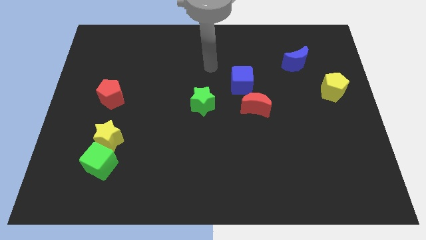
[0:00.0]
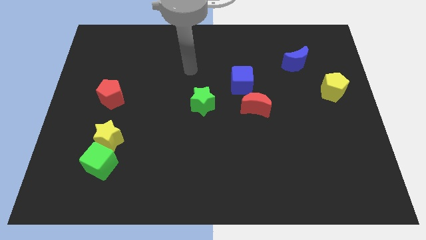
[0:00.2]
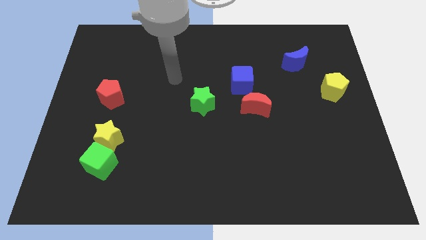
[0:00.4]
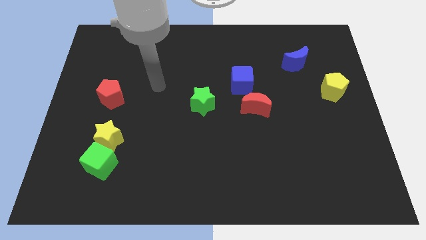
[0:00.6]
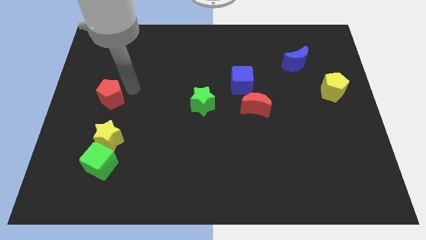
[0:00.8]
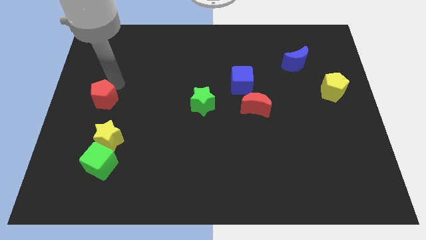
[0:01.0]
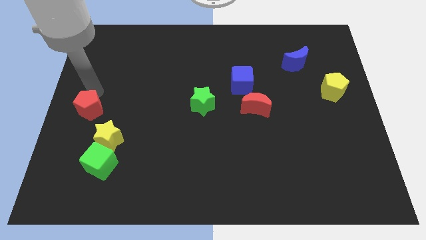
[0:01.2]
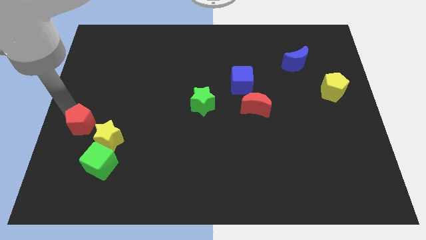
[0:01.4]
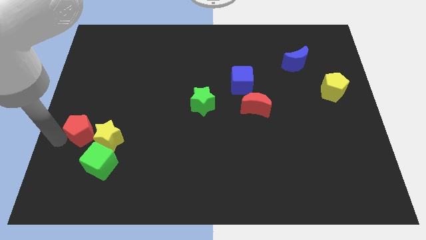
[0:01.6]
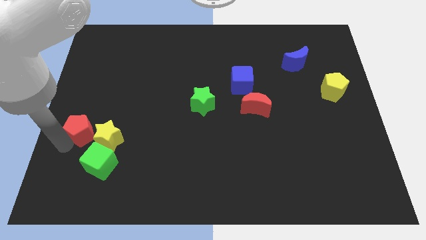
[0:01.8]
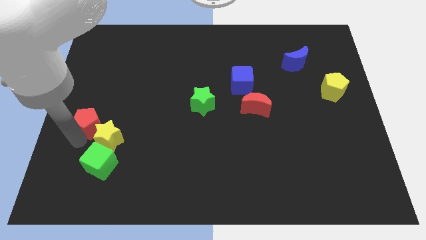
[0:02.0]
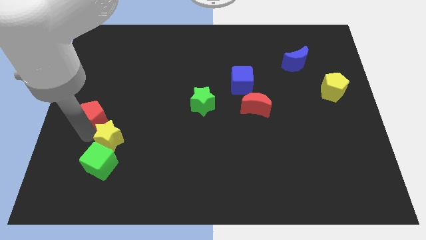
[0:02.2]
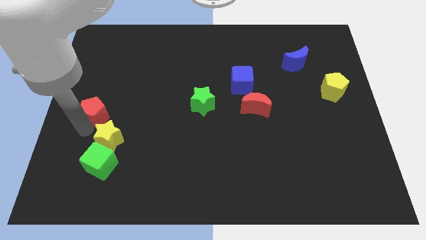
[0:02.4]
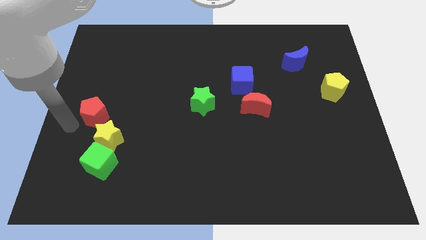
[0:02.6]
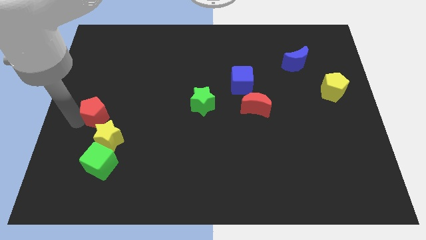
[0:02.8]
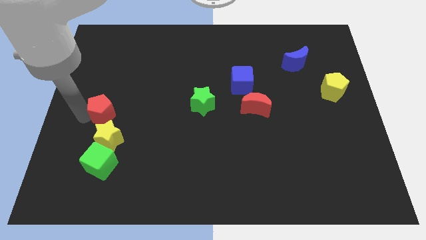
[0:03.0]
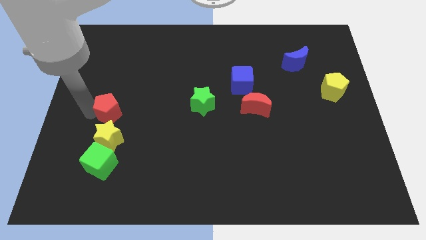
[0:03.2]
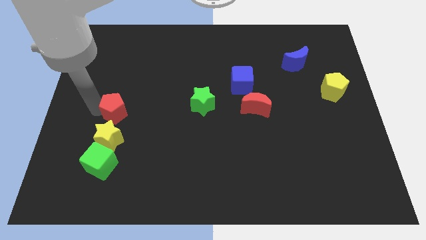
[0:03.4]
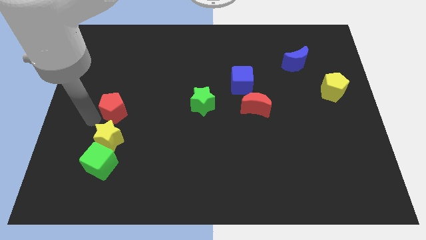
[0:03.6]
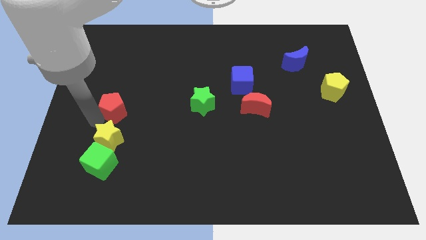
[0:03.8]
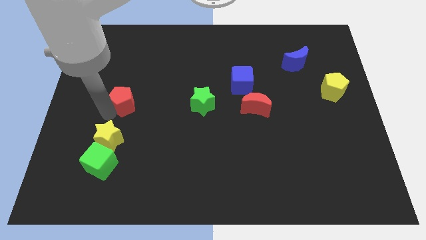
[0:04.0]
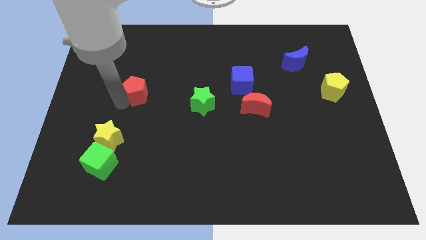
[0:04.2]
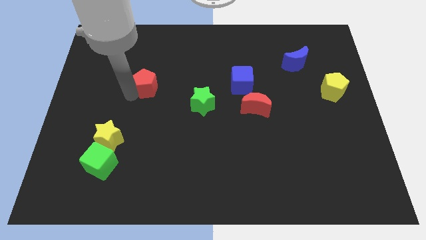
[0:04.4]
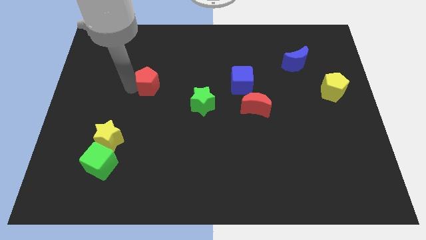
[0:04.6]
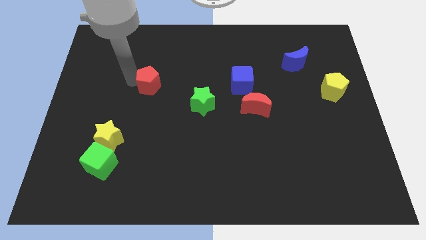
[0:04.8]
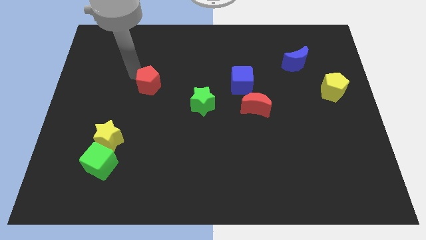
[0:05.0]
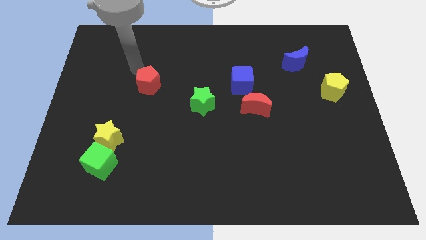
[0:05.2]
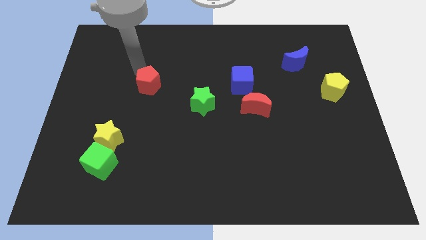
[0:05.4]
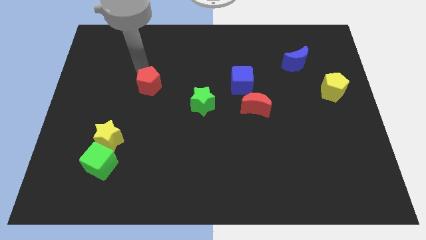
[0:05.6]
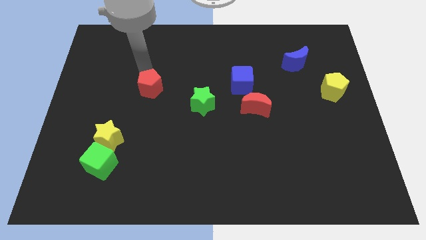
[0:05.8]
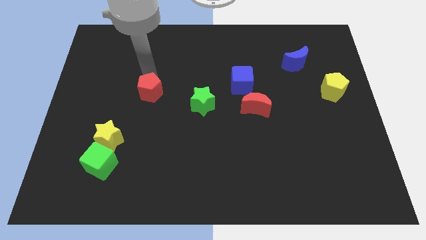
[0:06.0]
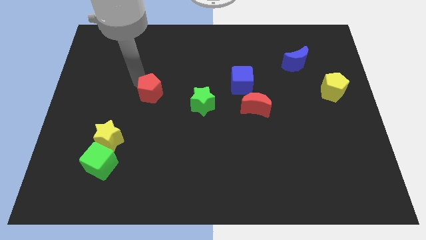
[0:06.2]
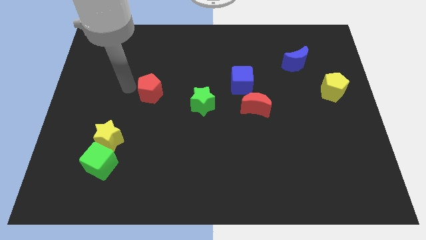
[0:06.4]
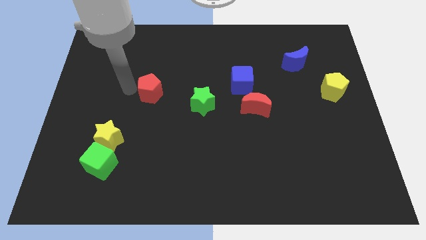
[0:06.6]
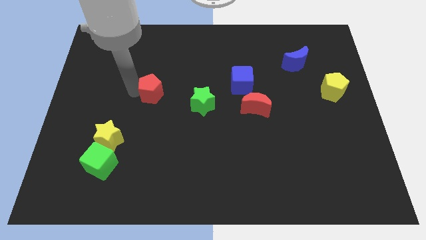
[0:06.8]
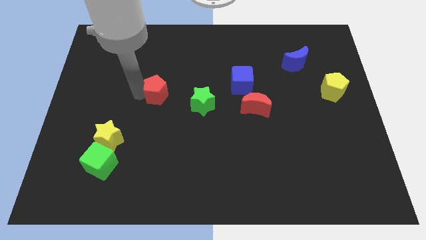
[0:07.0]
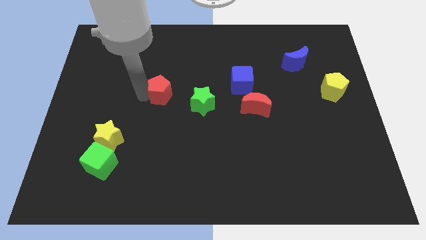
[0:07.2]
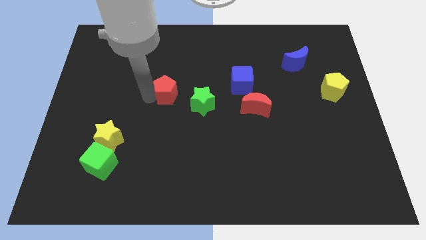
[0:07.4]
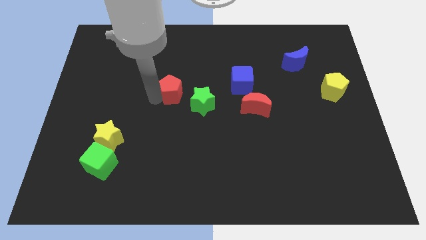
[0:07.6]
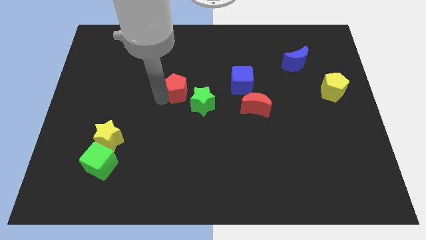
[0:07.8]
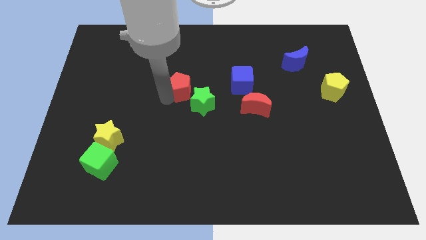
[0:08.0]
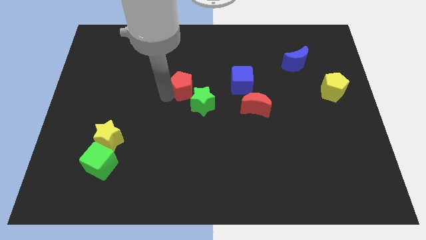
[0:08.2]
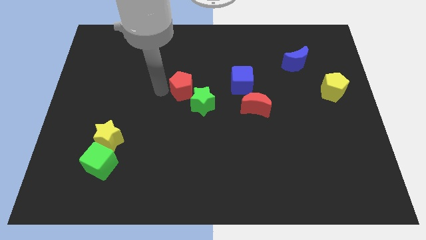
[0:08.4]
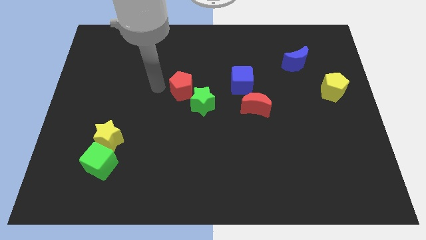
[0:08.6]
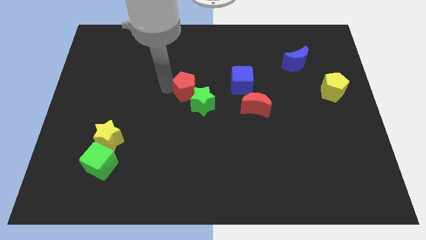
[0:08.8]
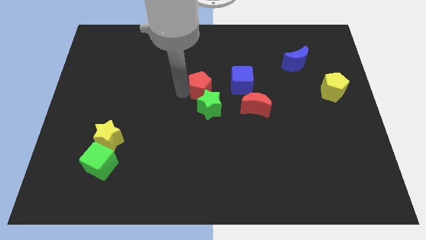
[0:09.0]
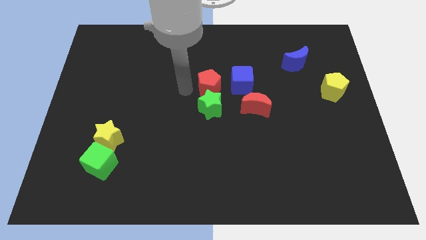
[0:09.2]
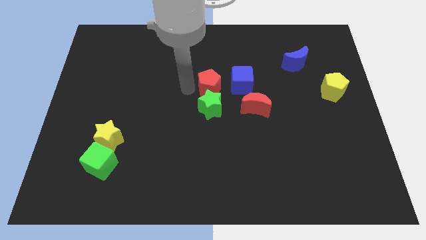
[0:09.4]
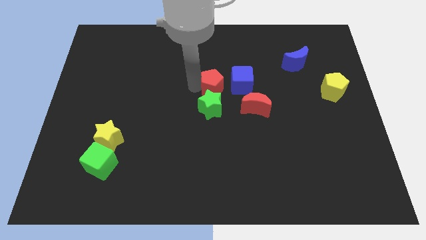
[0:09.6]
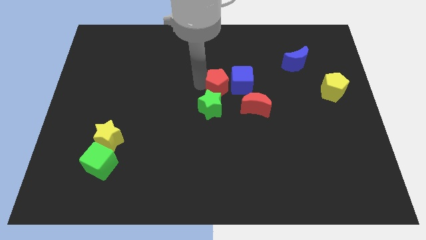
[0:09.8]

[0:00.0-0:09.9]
slide the red pentagon next to the blue cube
